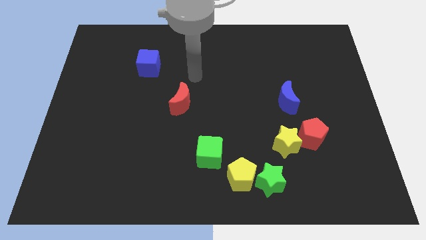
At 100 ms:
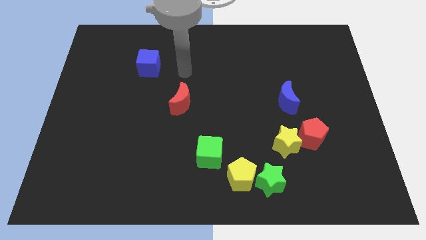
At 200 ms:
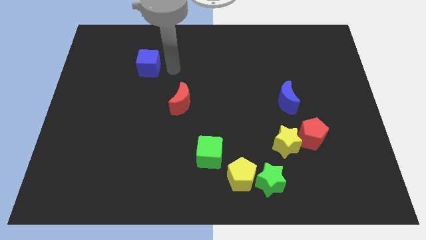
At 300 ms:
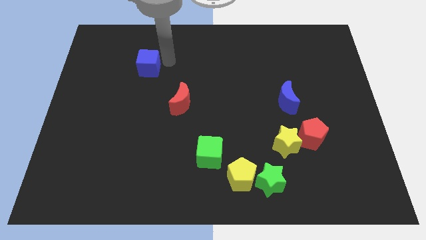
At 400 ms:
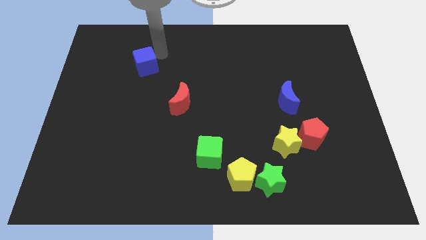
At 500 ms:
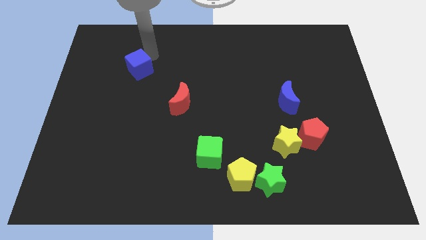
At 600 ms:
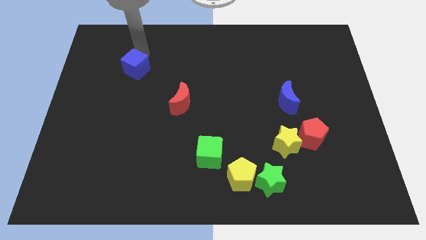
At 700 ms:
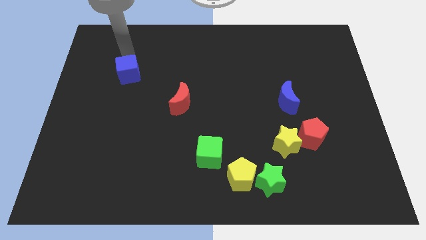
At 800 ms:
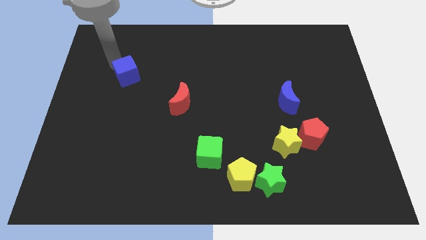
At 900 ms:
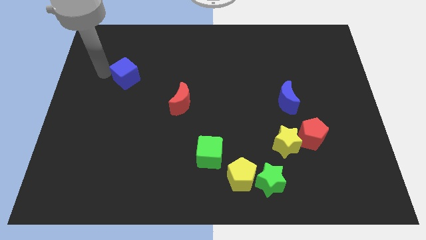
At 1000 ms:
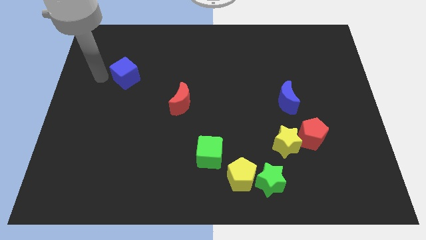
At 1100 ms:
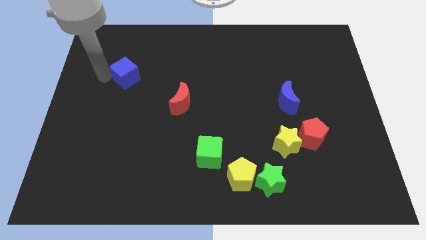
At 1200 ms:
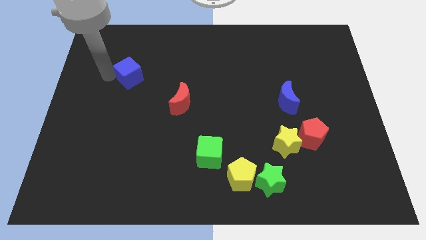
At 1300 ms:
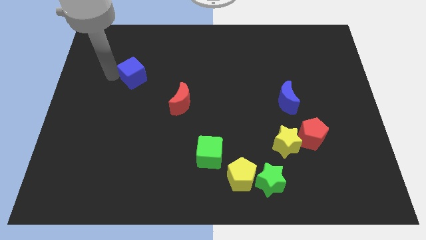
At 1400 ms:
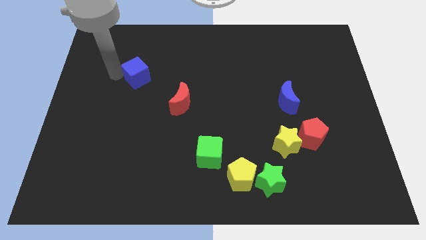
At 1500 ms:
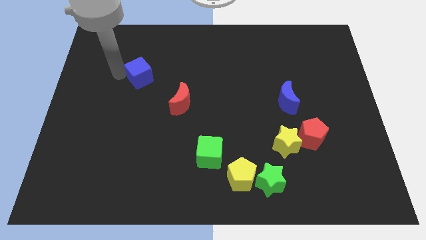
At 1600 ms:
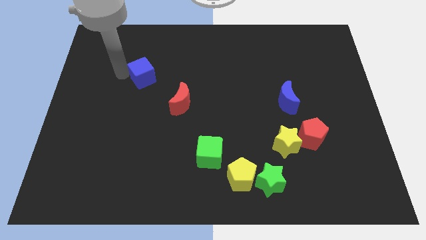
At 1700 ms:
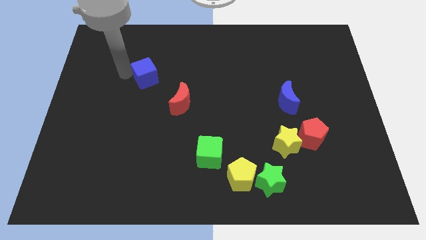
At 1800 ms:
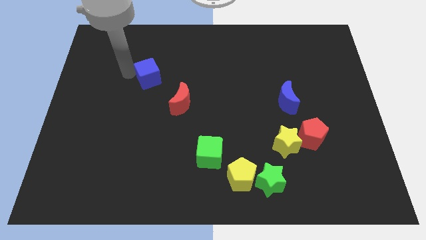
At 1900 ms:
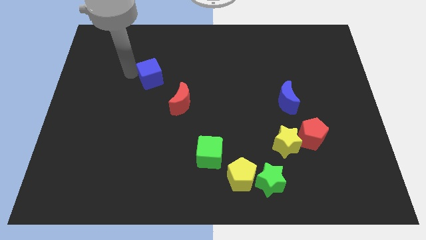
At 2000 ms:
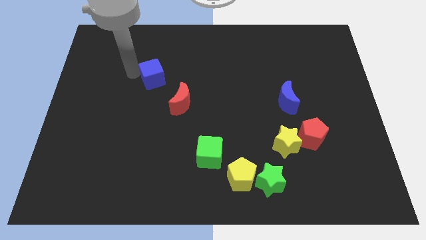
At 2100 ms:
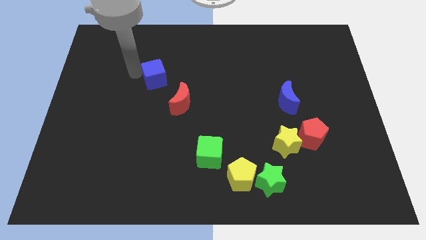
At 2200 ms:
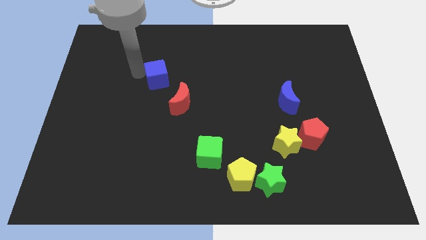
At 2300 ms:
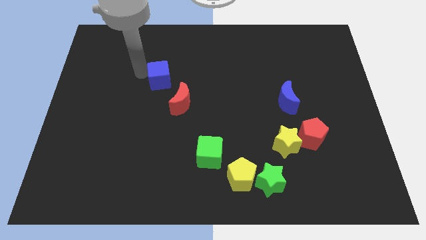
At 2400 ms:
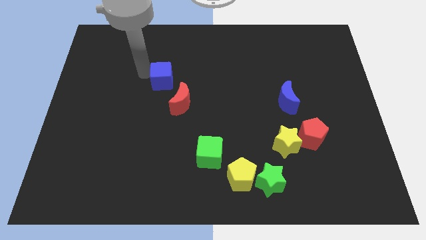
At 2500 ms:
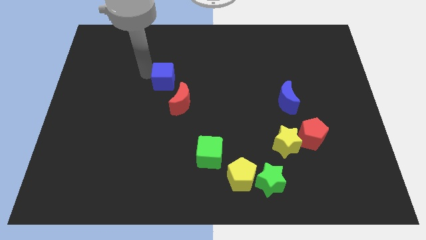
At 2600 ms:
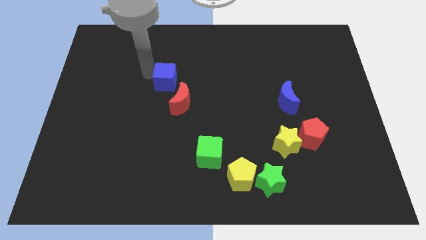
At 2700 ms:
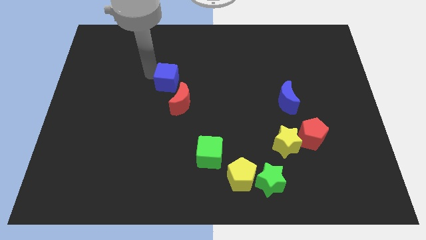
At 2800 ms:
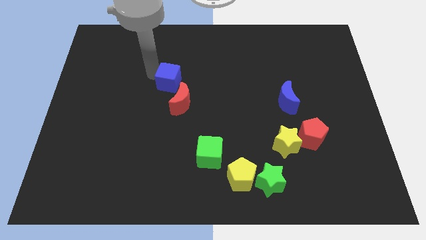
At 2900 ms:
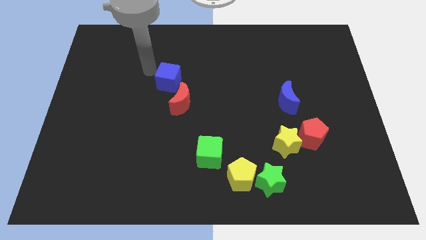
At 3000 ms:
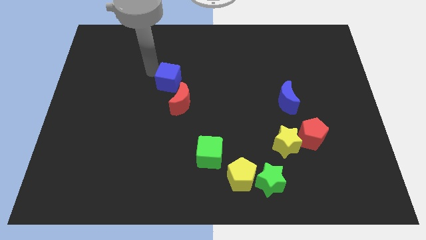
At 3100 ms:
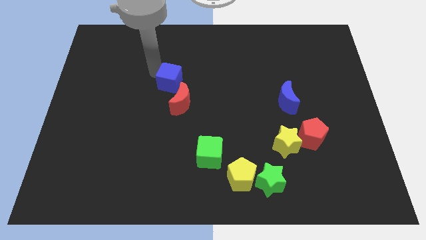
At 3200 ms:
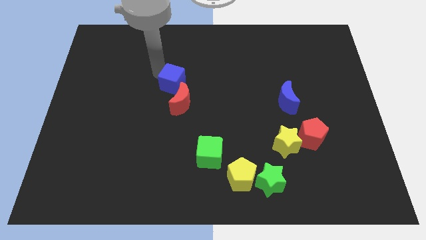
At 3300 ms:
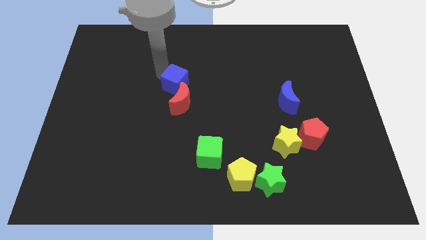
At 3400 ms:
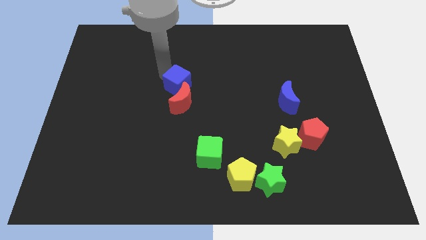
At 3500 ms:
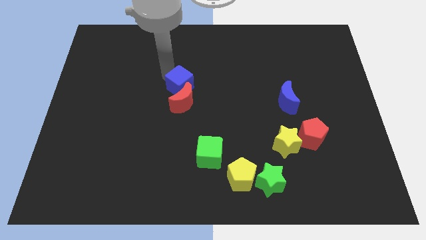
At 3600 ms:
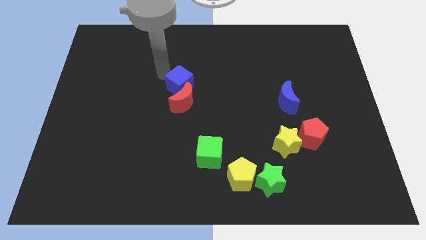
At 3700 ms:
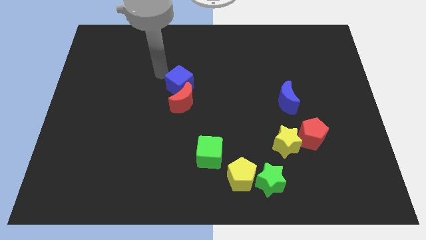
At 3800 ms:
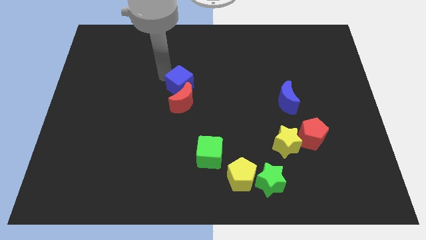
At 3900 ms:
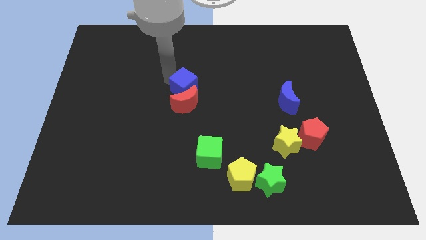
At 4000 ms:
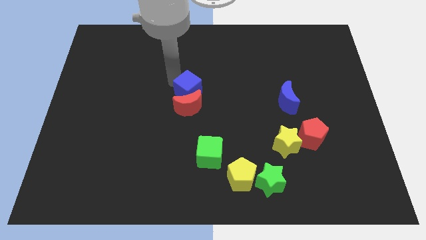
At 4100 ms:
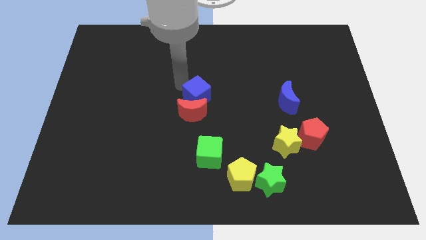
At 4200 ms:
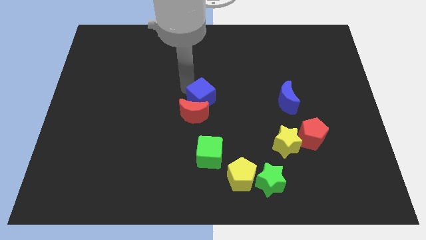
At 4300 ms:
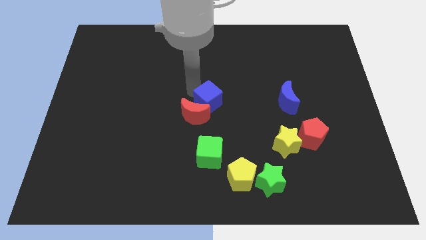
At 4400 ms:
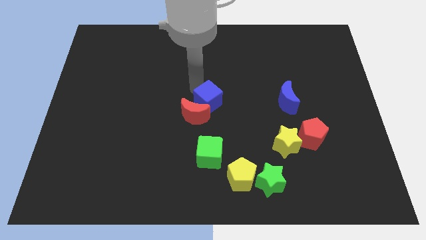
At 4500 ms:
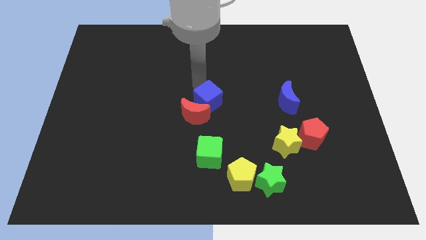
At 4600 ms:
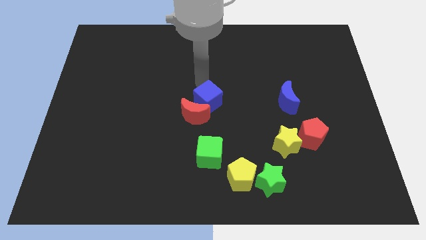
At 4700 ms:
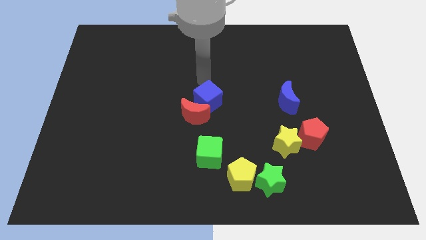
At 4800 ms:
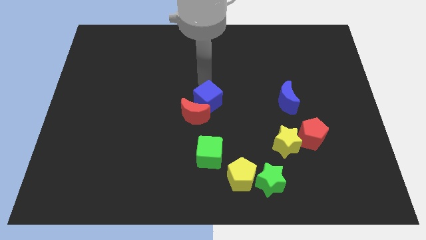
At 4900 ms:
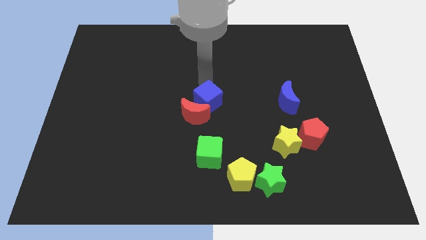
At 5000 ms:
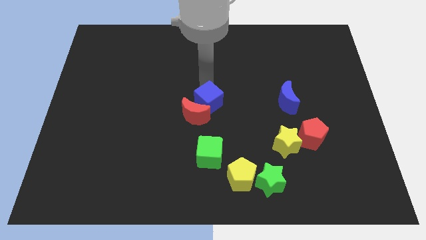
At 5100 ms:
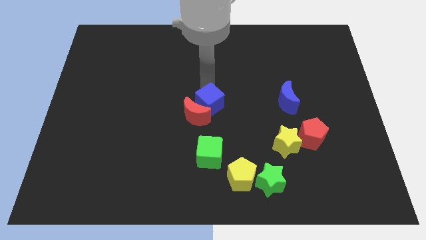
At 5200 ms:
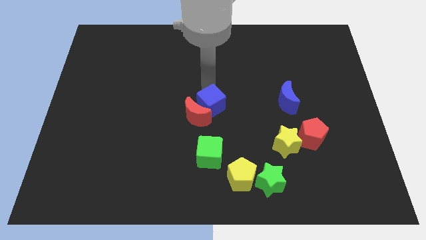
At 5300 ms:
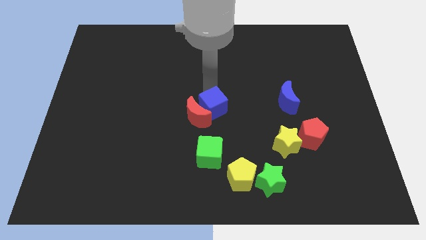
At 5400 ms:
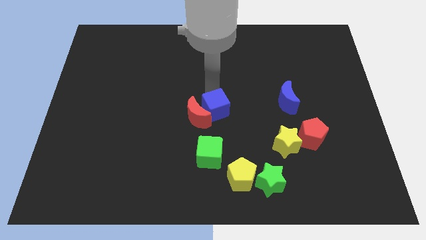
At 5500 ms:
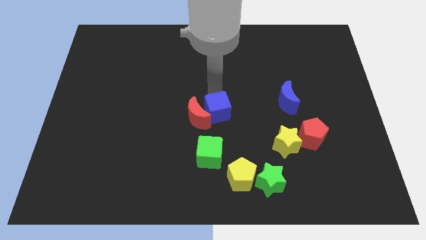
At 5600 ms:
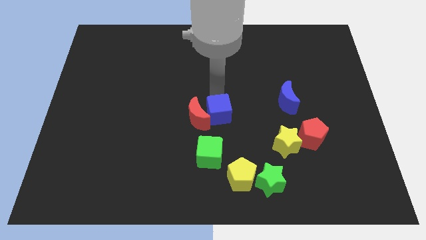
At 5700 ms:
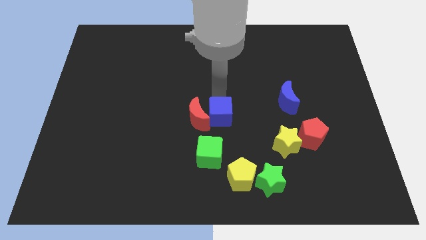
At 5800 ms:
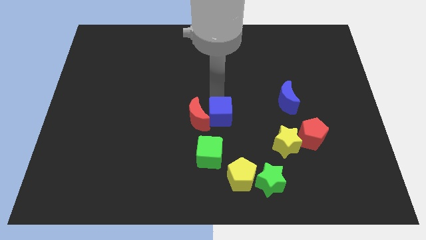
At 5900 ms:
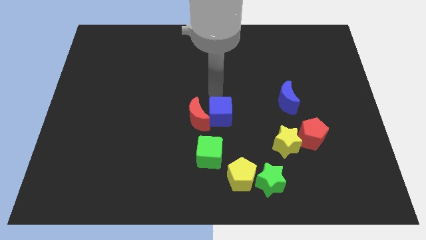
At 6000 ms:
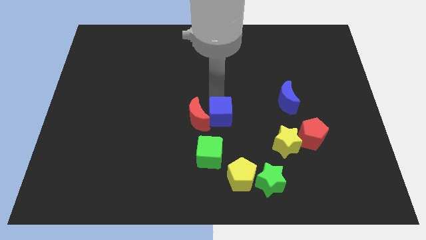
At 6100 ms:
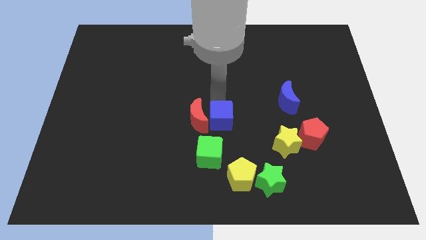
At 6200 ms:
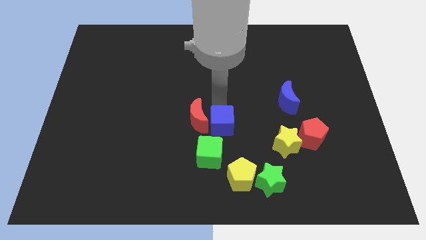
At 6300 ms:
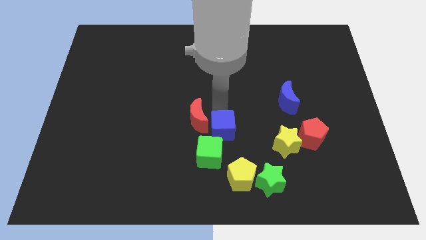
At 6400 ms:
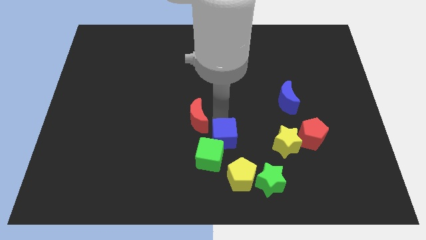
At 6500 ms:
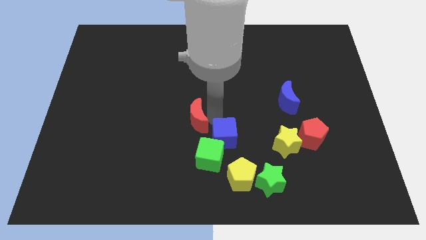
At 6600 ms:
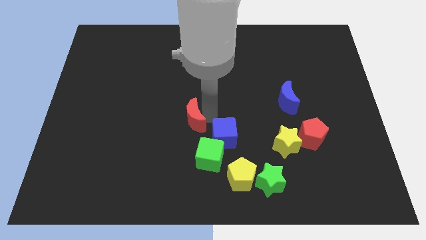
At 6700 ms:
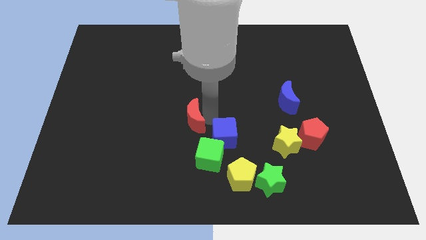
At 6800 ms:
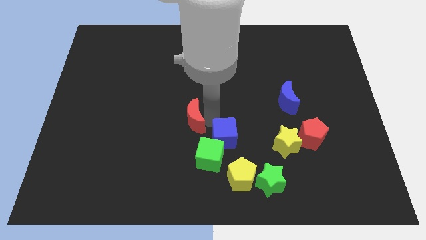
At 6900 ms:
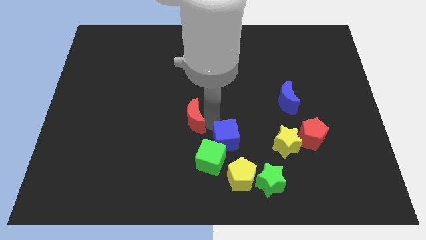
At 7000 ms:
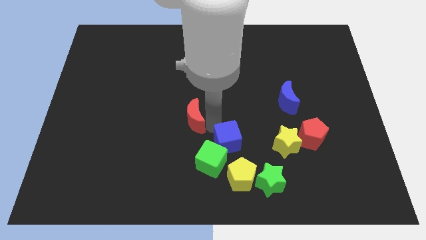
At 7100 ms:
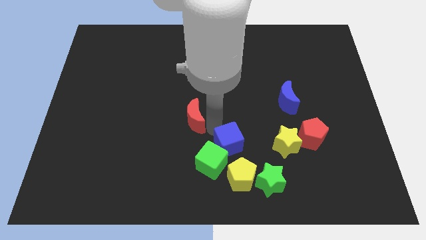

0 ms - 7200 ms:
move the blue cube to the top left of the green star

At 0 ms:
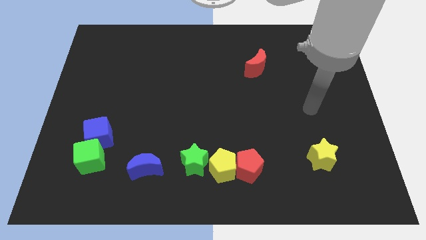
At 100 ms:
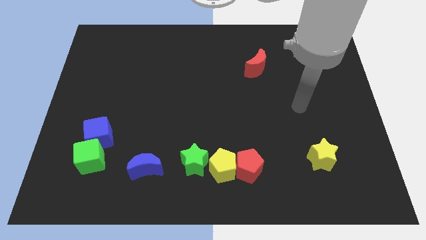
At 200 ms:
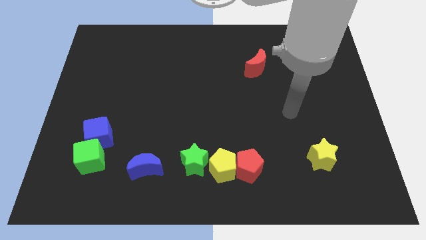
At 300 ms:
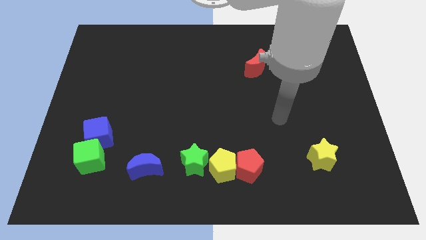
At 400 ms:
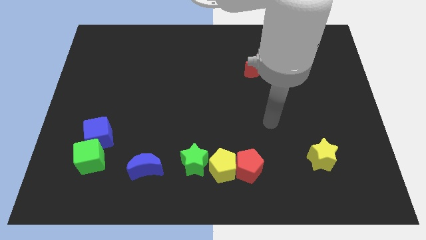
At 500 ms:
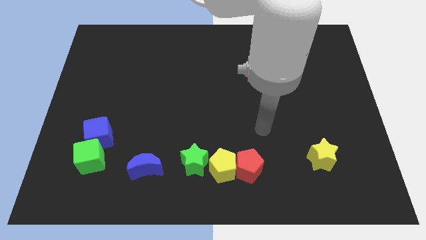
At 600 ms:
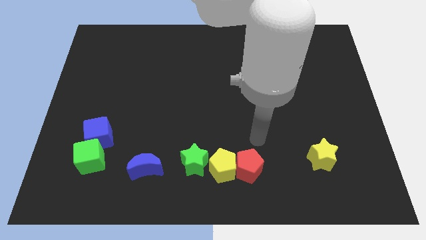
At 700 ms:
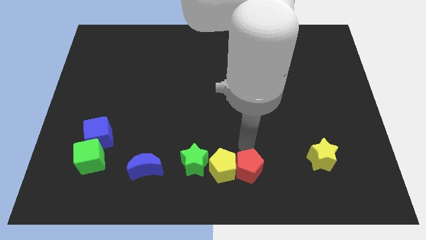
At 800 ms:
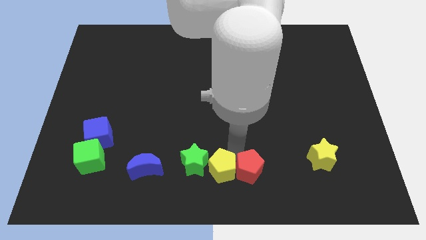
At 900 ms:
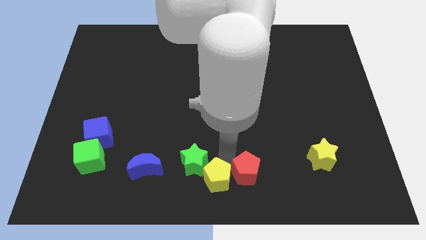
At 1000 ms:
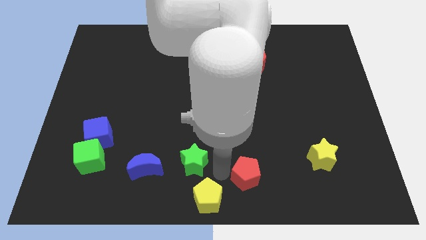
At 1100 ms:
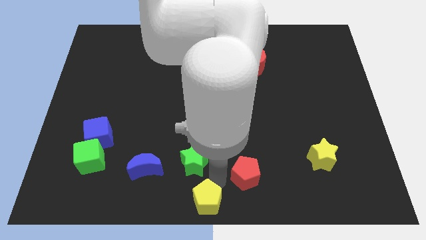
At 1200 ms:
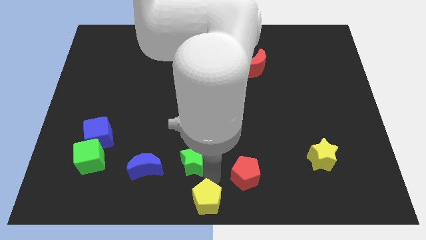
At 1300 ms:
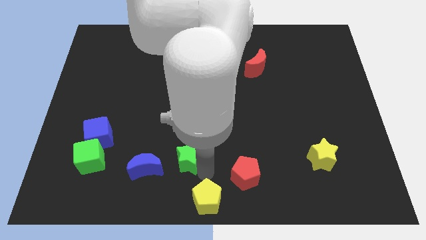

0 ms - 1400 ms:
push the green star to the top right of the blue moon
